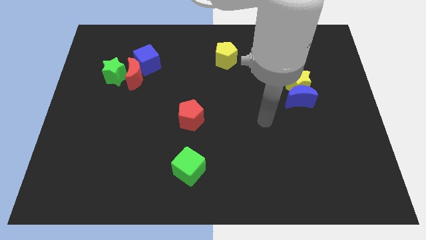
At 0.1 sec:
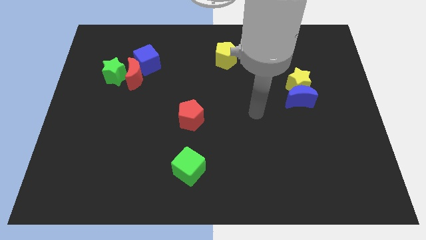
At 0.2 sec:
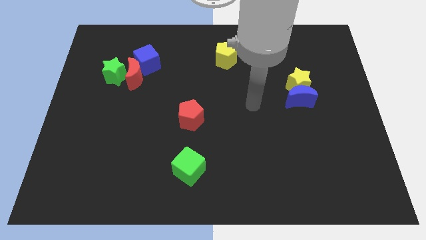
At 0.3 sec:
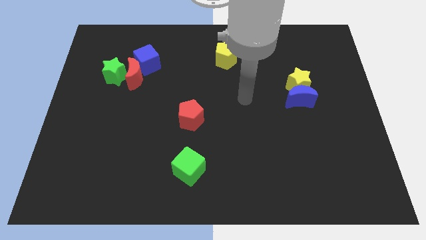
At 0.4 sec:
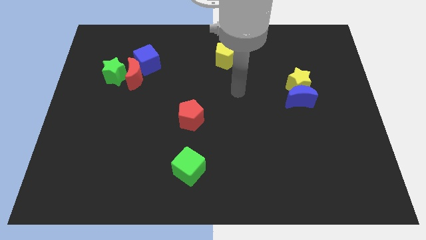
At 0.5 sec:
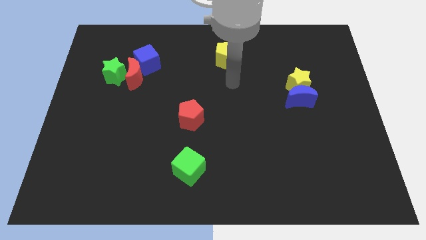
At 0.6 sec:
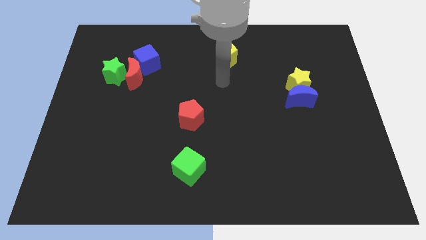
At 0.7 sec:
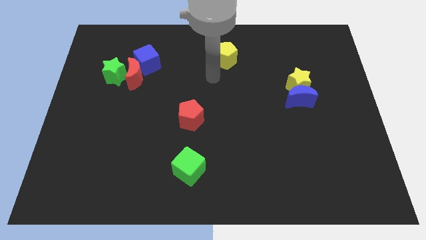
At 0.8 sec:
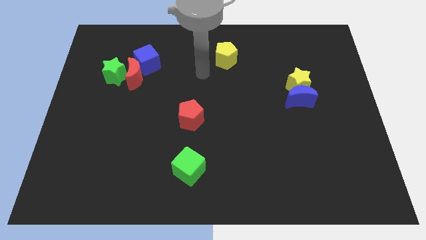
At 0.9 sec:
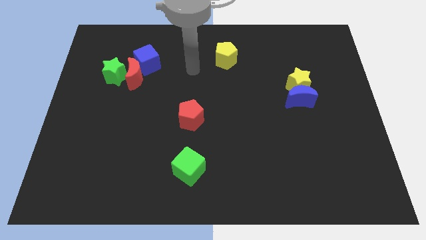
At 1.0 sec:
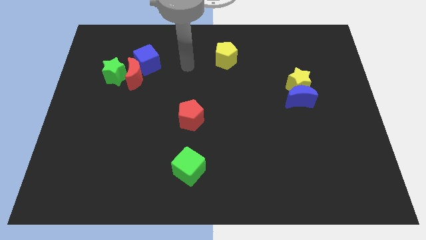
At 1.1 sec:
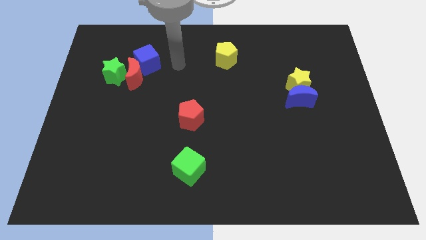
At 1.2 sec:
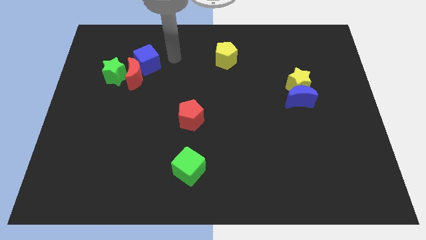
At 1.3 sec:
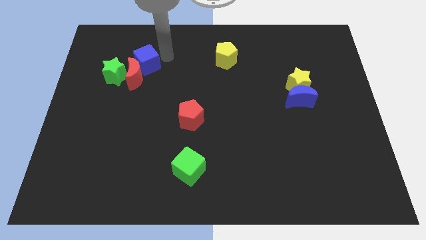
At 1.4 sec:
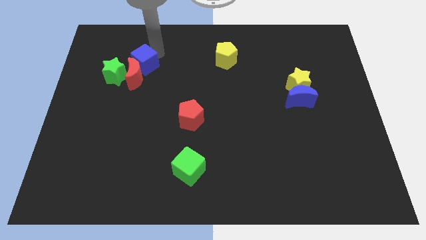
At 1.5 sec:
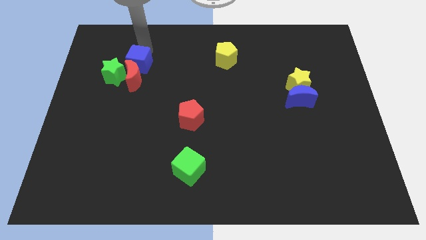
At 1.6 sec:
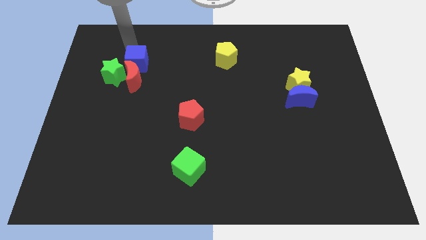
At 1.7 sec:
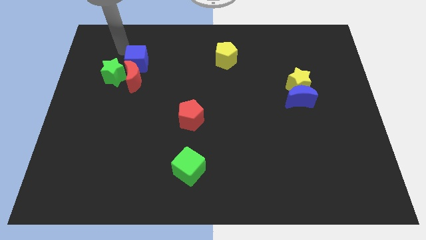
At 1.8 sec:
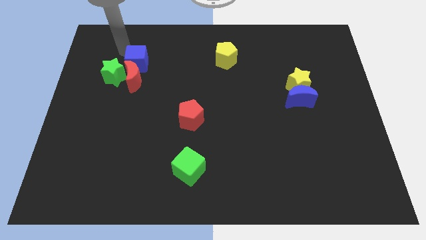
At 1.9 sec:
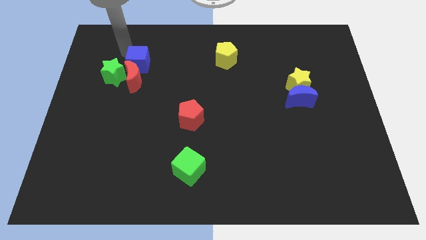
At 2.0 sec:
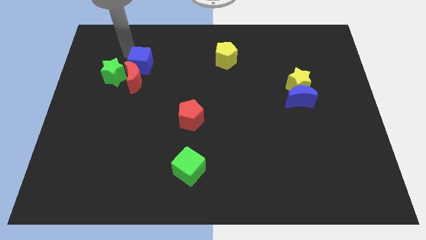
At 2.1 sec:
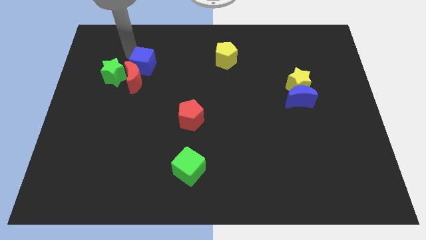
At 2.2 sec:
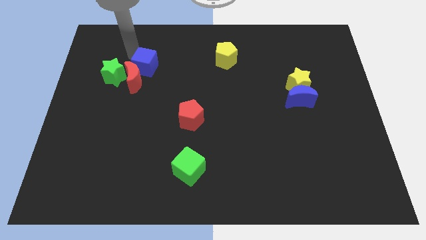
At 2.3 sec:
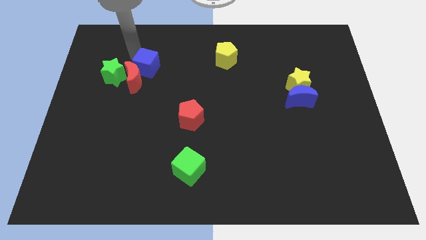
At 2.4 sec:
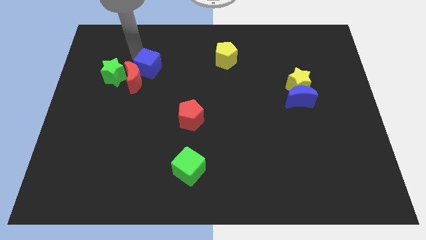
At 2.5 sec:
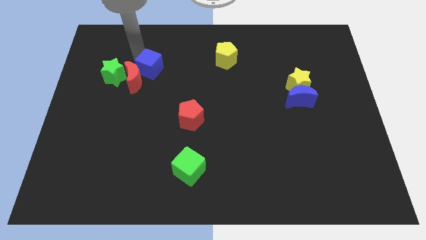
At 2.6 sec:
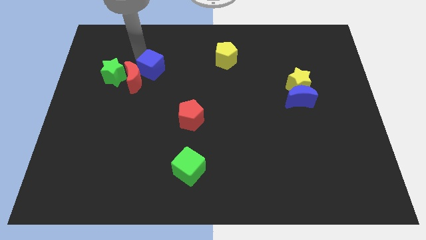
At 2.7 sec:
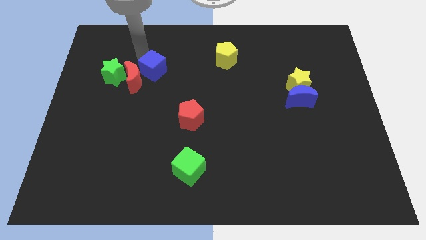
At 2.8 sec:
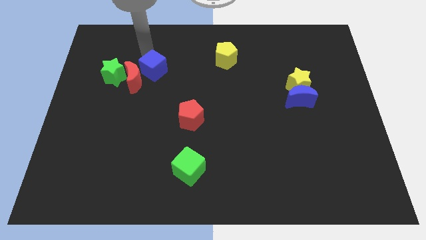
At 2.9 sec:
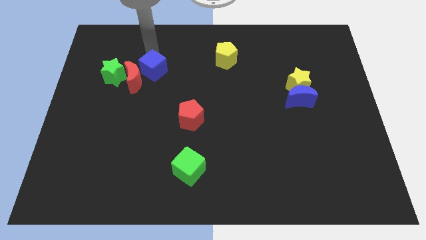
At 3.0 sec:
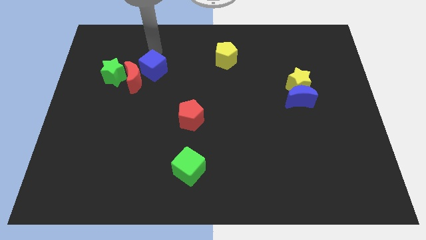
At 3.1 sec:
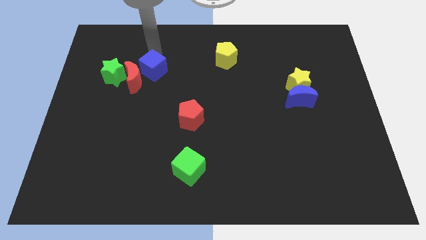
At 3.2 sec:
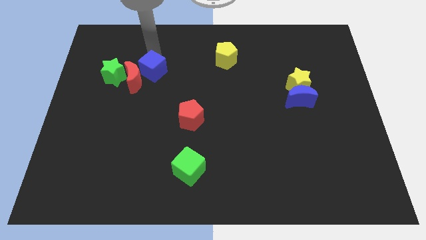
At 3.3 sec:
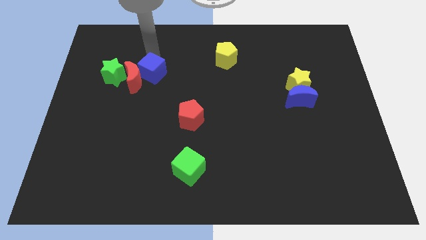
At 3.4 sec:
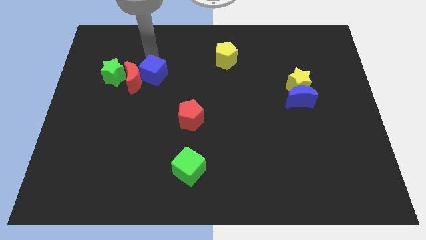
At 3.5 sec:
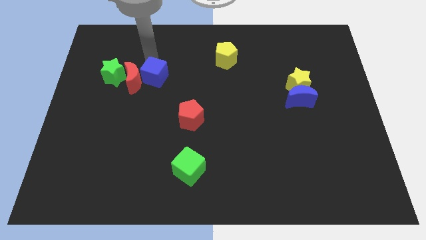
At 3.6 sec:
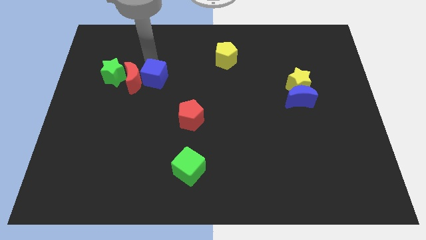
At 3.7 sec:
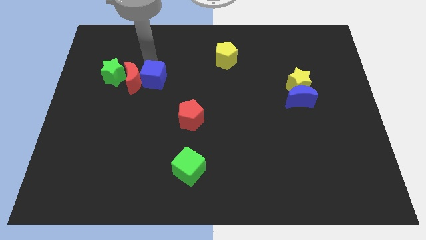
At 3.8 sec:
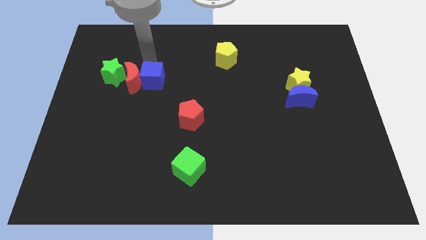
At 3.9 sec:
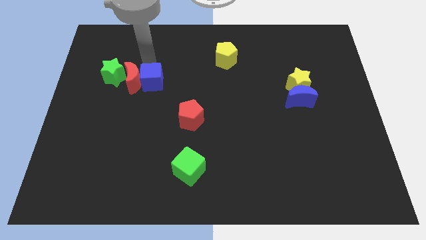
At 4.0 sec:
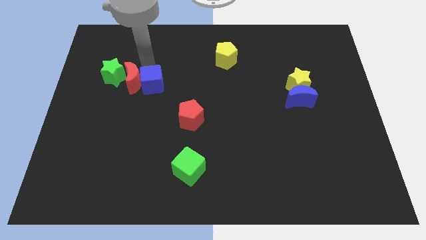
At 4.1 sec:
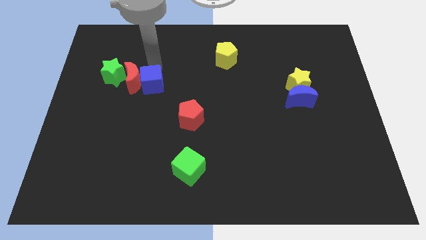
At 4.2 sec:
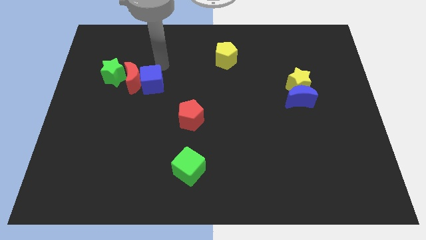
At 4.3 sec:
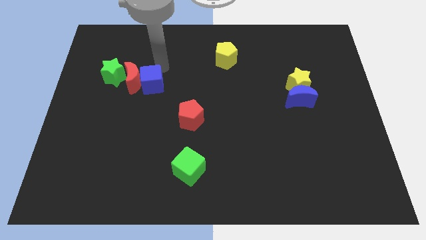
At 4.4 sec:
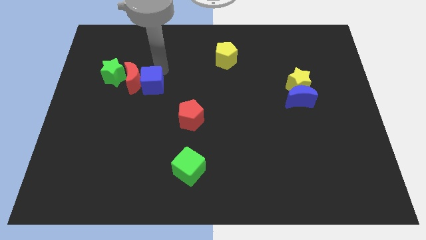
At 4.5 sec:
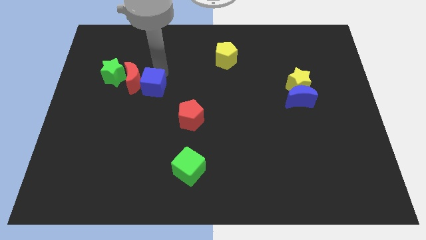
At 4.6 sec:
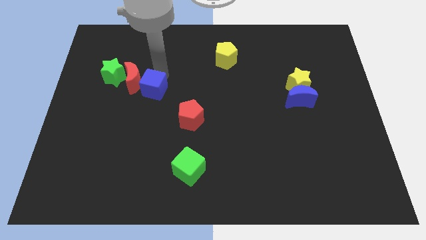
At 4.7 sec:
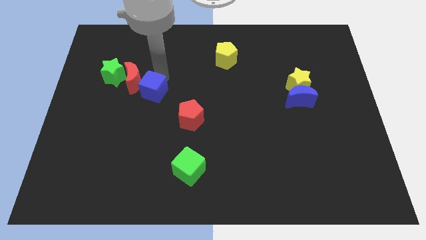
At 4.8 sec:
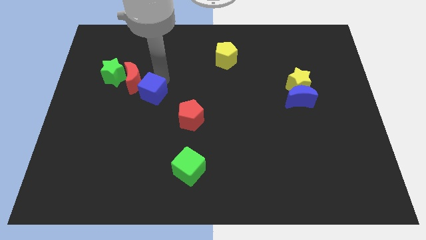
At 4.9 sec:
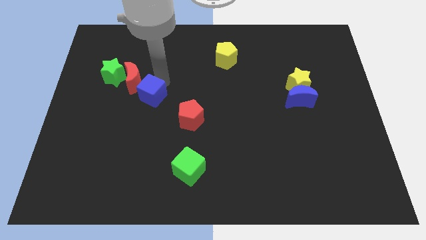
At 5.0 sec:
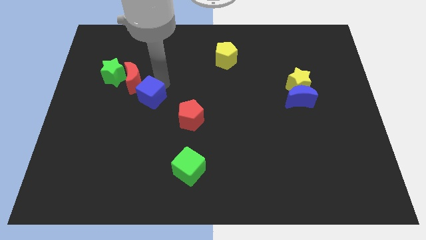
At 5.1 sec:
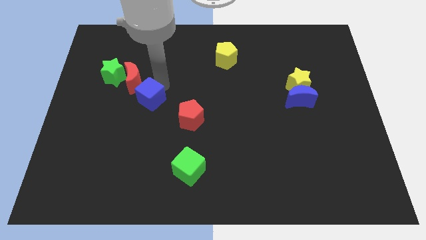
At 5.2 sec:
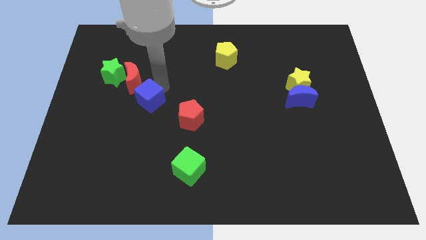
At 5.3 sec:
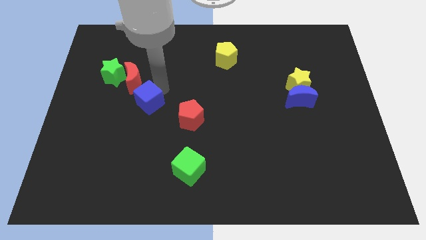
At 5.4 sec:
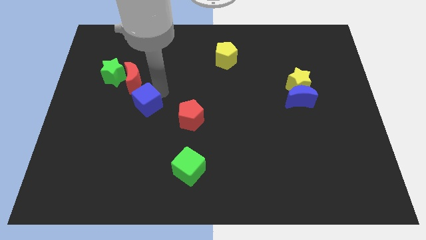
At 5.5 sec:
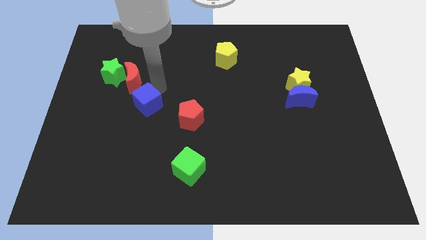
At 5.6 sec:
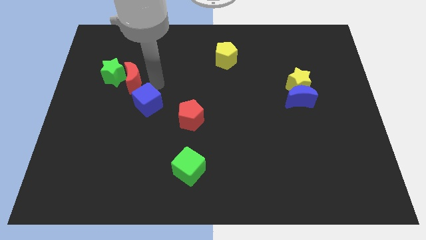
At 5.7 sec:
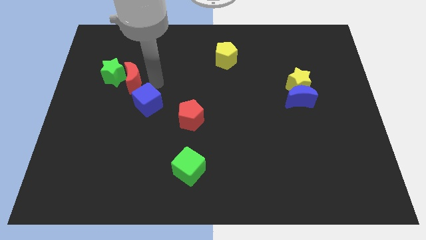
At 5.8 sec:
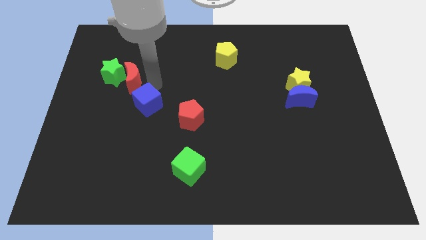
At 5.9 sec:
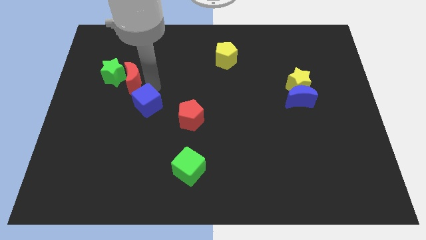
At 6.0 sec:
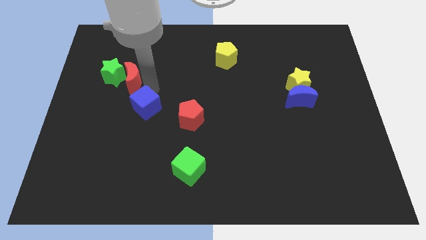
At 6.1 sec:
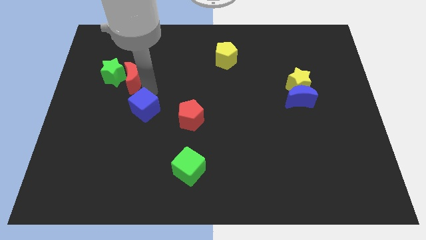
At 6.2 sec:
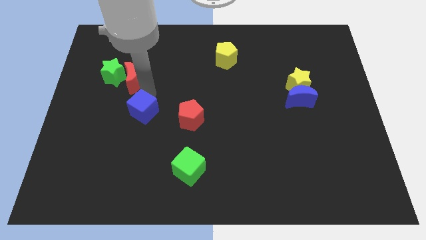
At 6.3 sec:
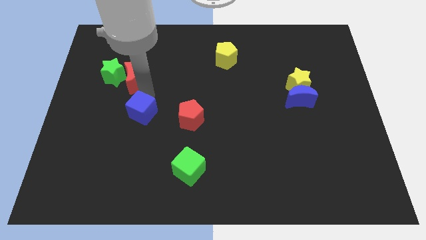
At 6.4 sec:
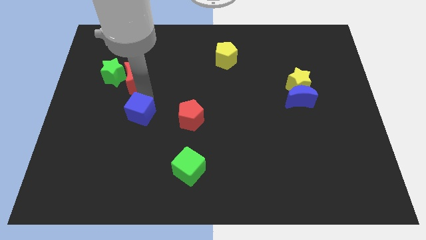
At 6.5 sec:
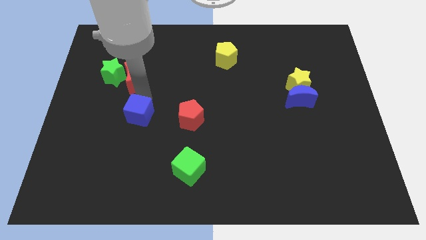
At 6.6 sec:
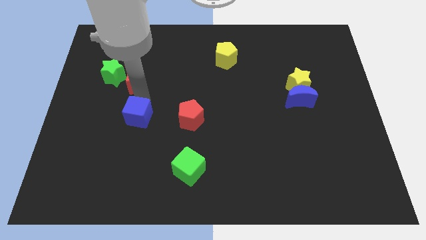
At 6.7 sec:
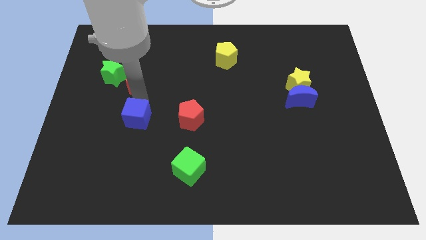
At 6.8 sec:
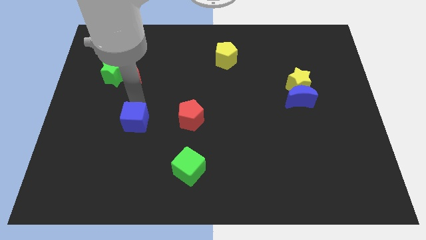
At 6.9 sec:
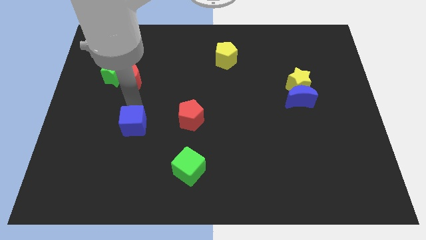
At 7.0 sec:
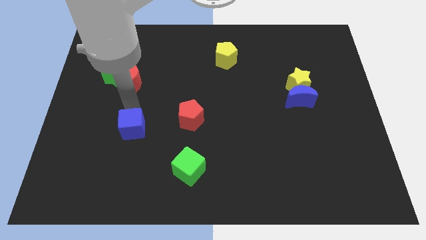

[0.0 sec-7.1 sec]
move the blue cube down
